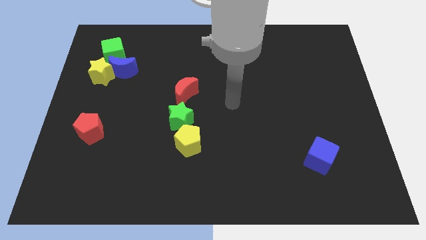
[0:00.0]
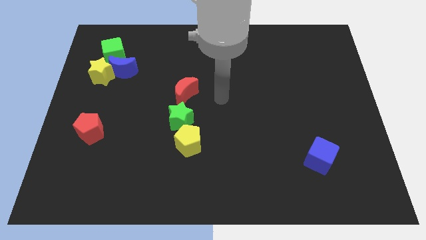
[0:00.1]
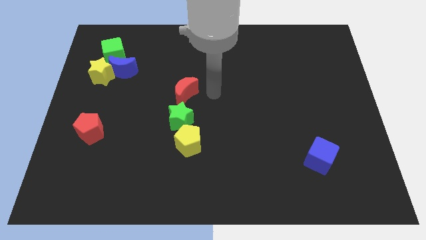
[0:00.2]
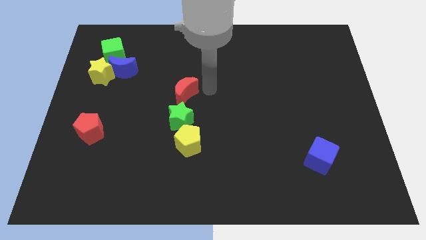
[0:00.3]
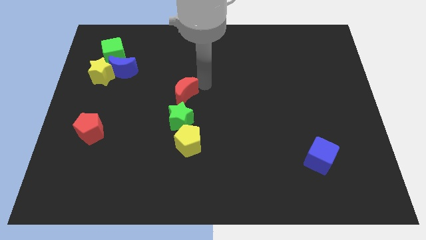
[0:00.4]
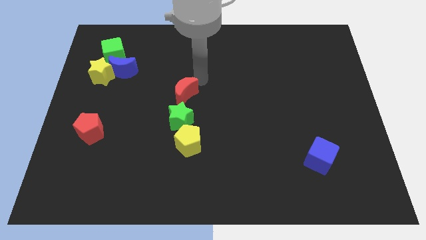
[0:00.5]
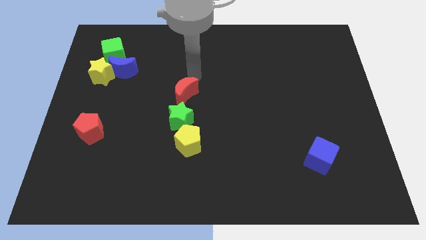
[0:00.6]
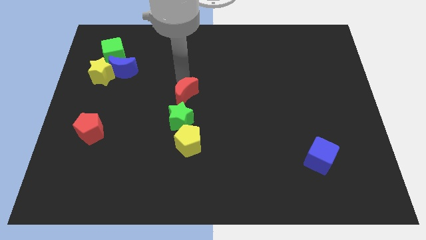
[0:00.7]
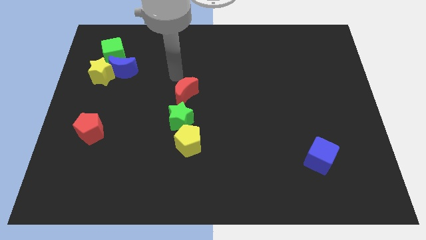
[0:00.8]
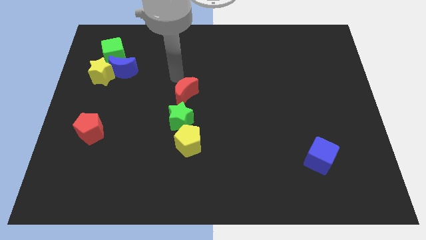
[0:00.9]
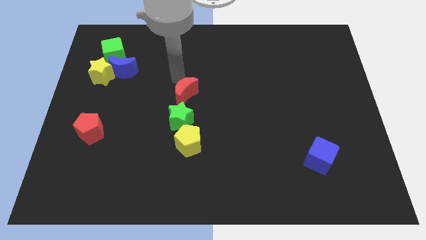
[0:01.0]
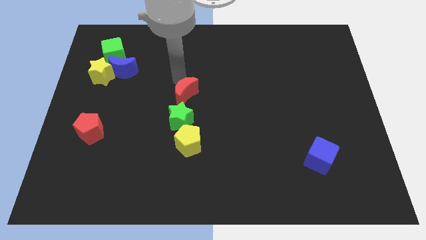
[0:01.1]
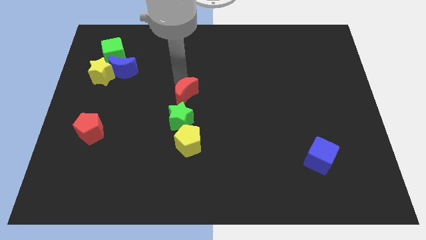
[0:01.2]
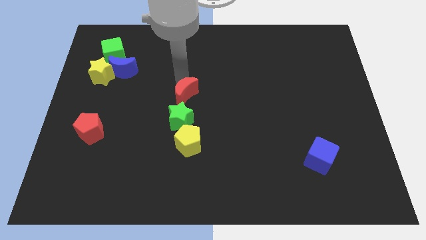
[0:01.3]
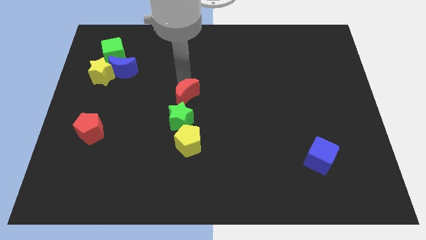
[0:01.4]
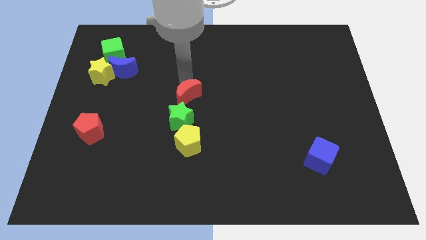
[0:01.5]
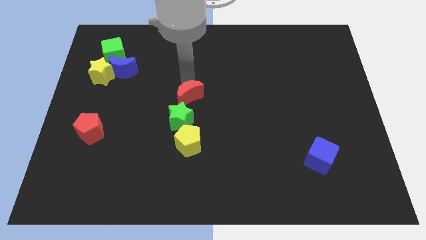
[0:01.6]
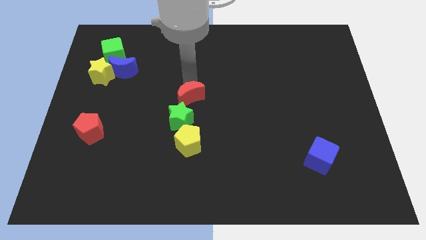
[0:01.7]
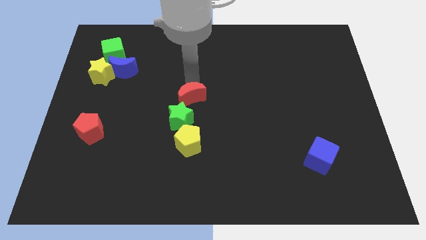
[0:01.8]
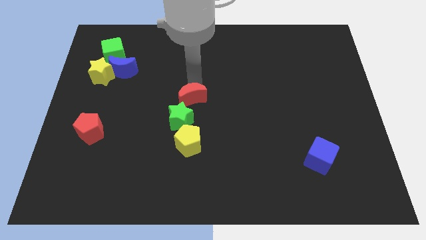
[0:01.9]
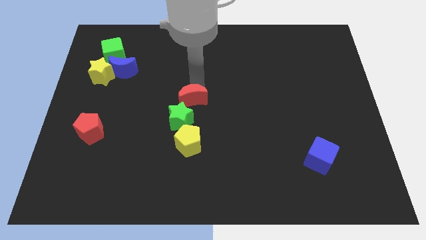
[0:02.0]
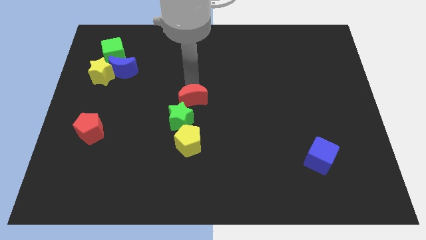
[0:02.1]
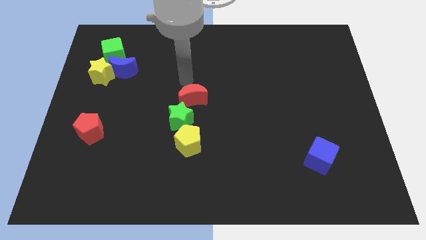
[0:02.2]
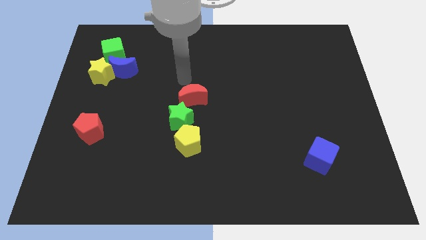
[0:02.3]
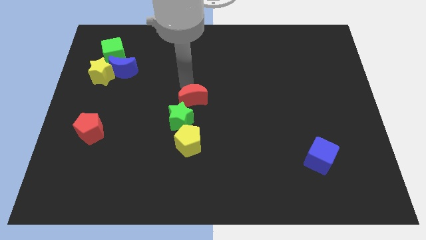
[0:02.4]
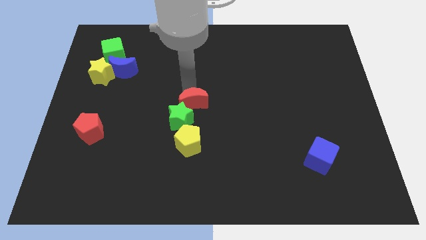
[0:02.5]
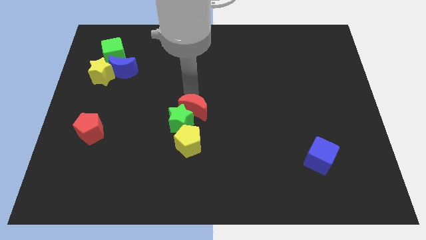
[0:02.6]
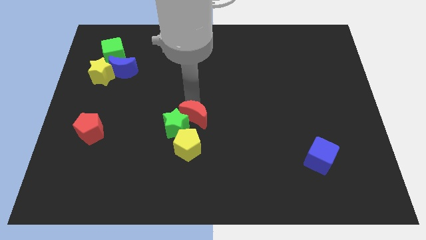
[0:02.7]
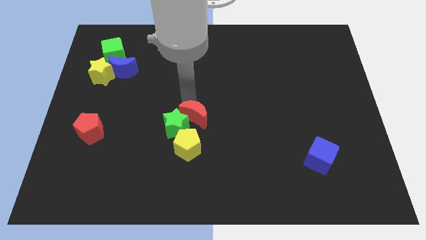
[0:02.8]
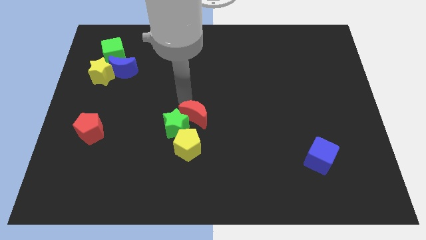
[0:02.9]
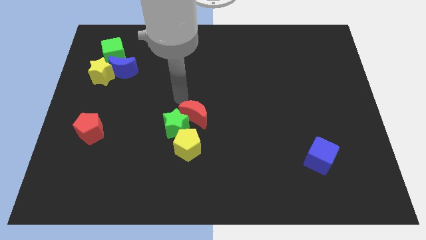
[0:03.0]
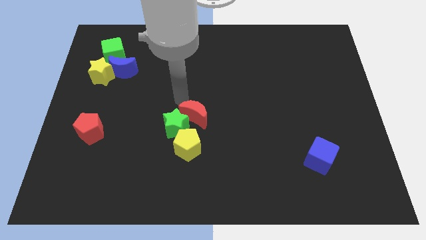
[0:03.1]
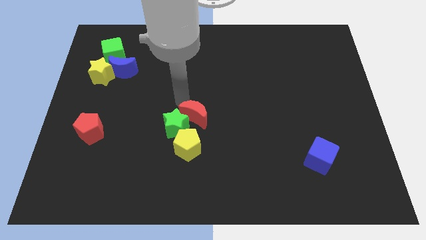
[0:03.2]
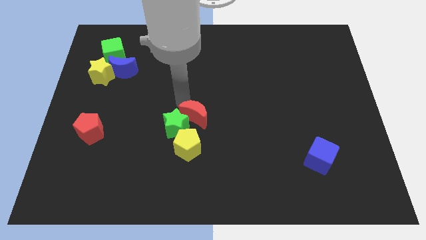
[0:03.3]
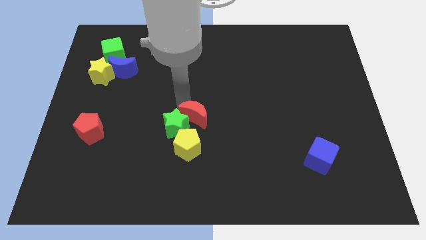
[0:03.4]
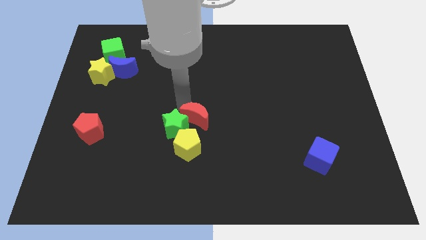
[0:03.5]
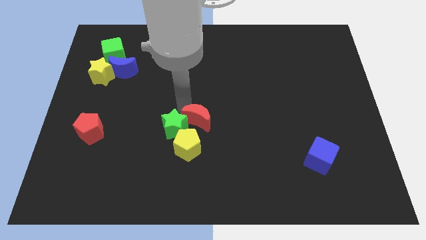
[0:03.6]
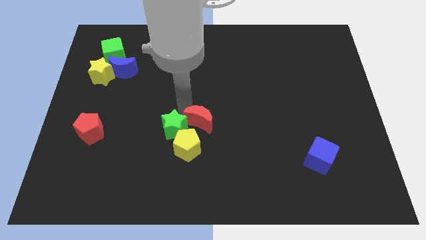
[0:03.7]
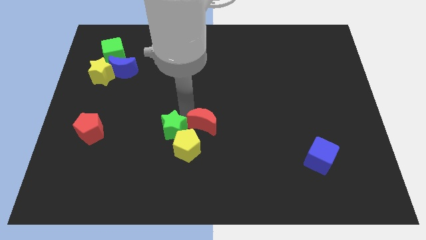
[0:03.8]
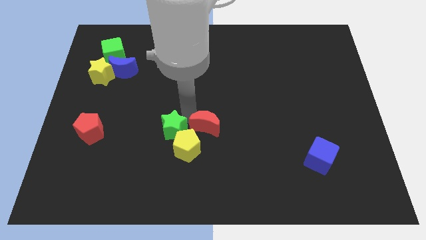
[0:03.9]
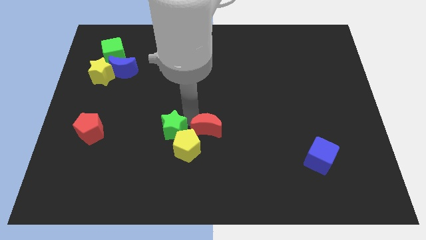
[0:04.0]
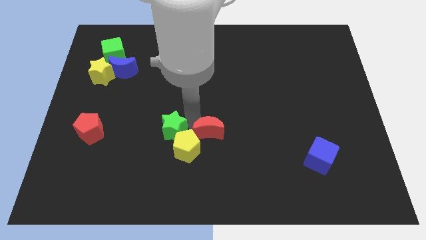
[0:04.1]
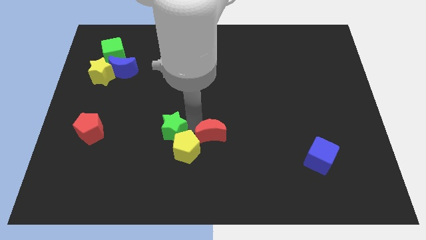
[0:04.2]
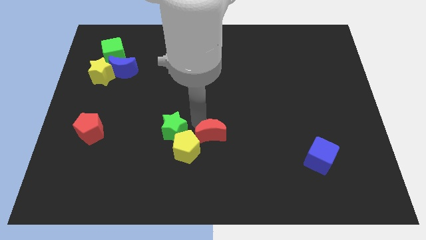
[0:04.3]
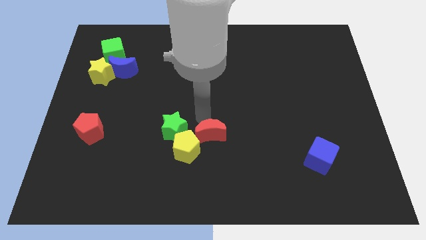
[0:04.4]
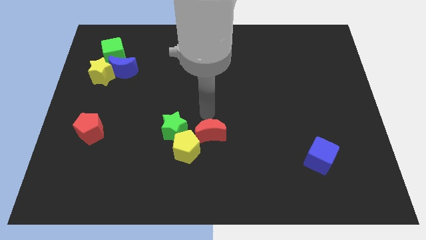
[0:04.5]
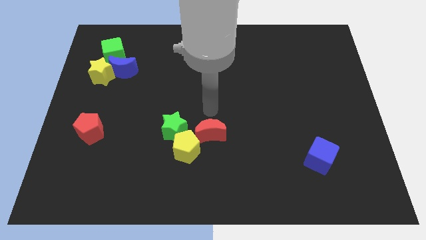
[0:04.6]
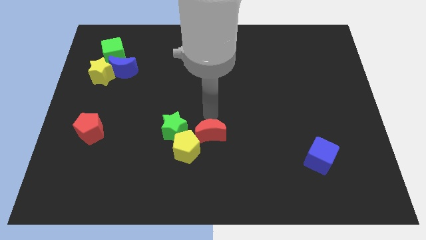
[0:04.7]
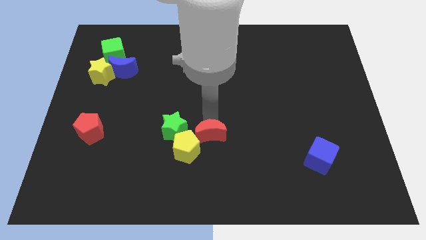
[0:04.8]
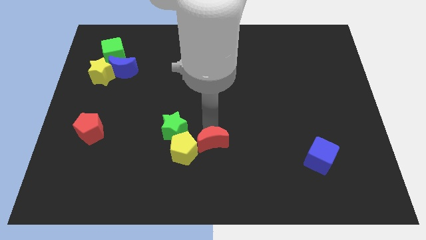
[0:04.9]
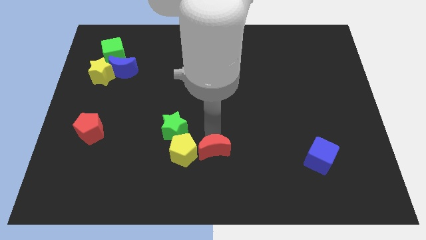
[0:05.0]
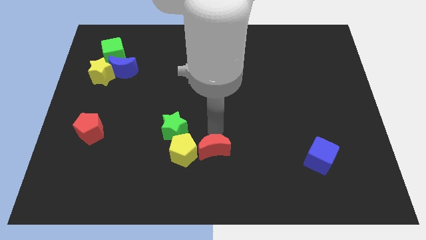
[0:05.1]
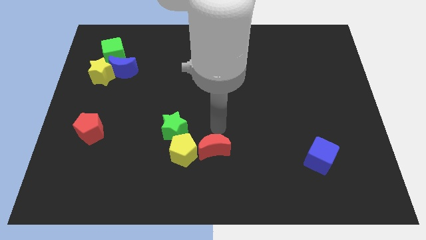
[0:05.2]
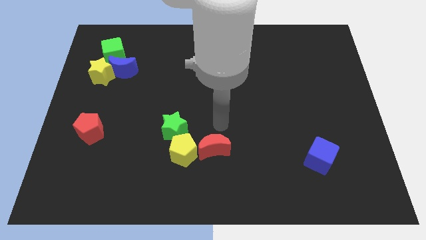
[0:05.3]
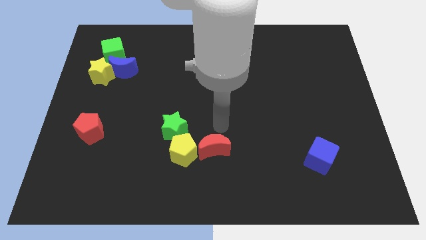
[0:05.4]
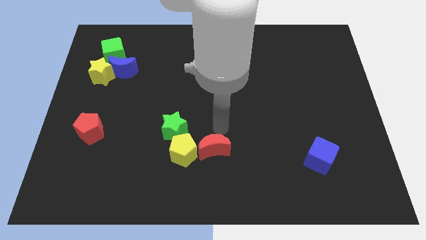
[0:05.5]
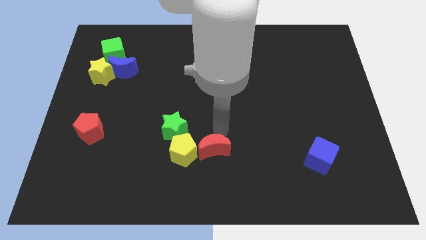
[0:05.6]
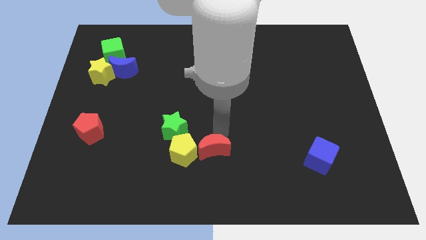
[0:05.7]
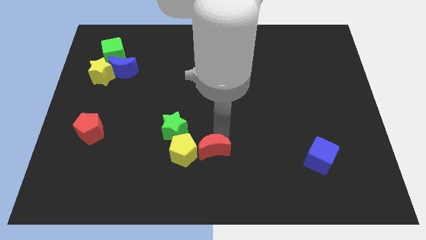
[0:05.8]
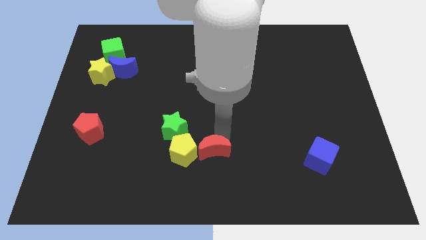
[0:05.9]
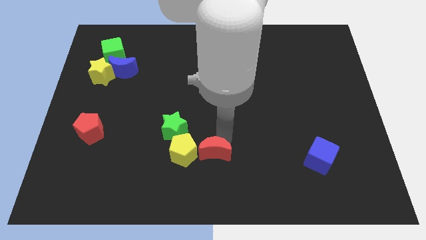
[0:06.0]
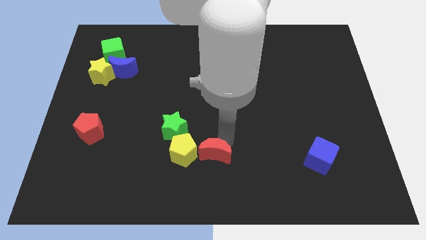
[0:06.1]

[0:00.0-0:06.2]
put the red moon to the bottom
